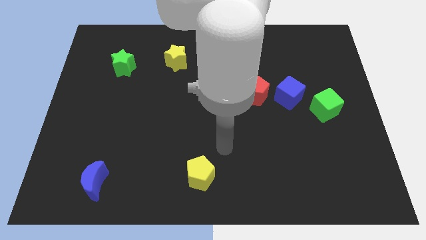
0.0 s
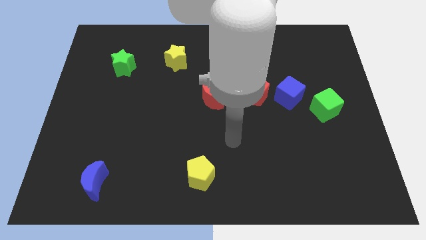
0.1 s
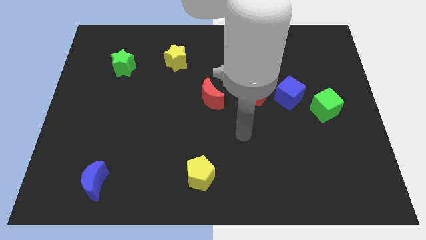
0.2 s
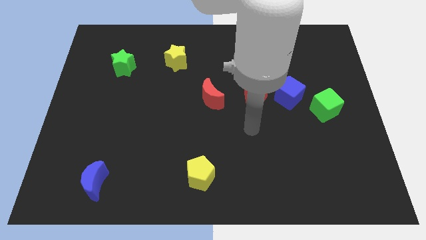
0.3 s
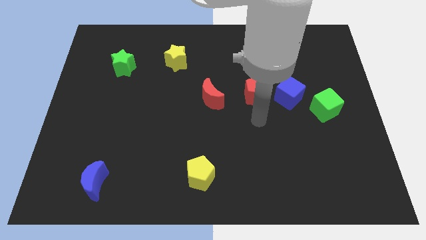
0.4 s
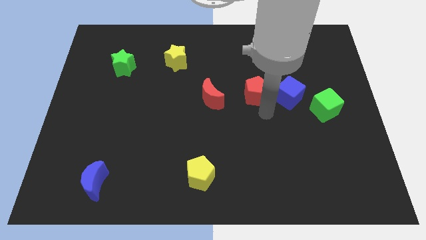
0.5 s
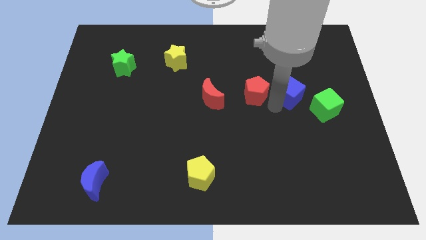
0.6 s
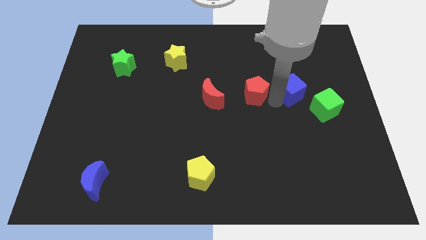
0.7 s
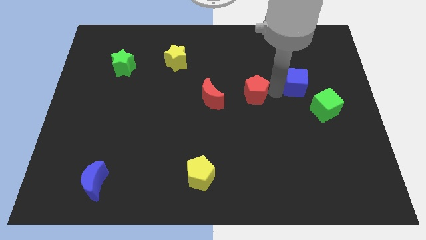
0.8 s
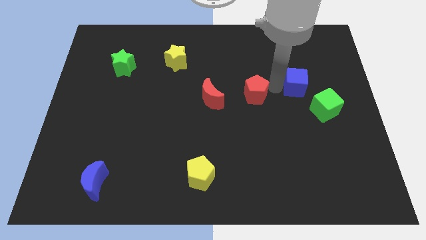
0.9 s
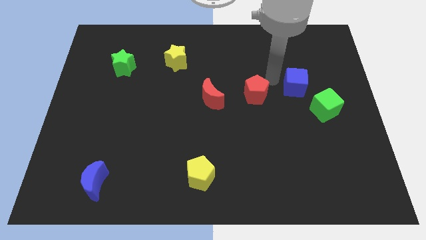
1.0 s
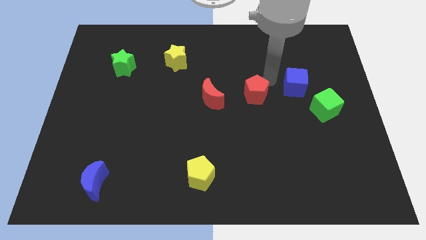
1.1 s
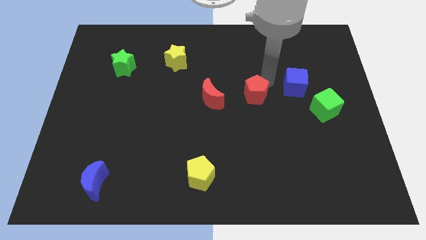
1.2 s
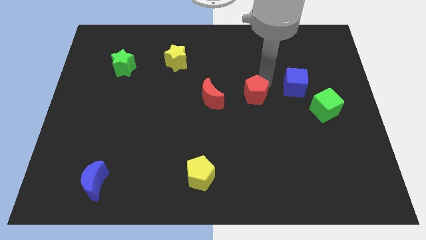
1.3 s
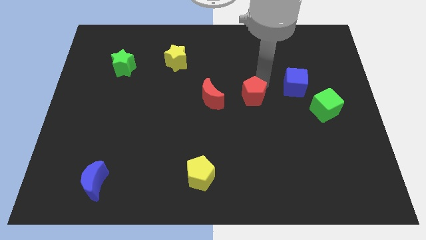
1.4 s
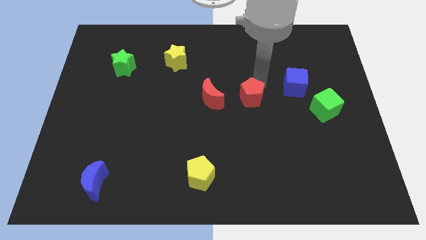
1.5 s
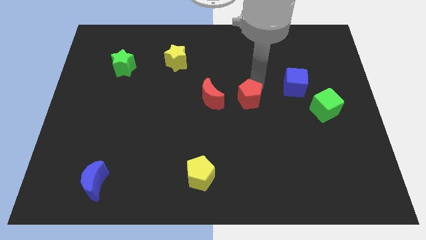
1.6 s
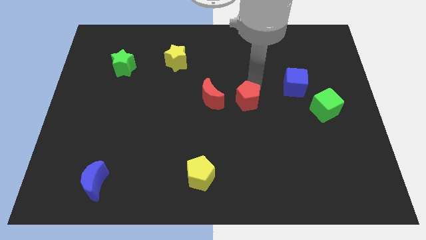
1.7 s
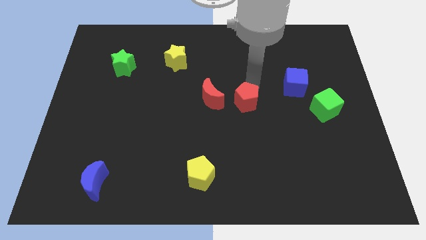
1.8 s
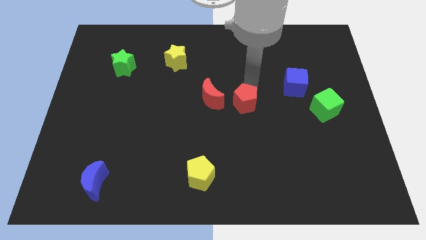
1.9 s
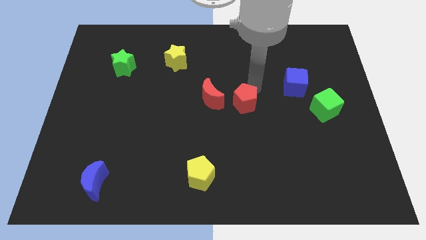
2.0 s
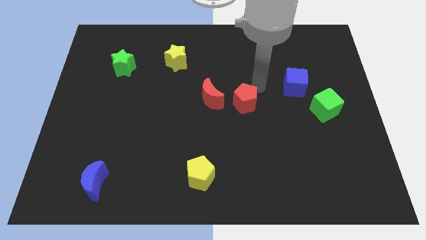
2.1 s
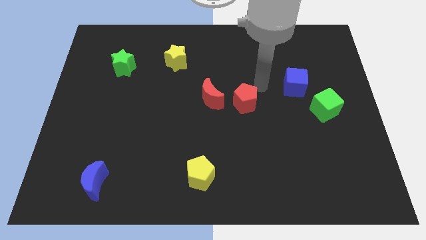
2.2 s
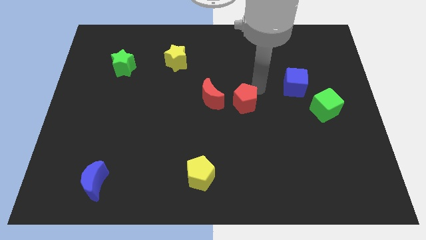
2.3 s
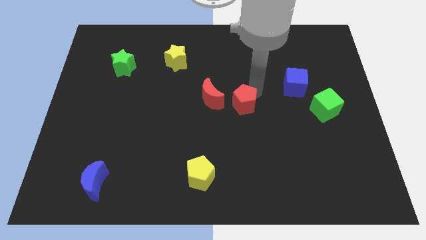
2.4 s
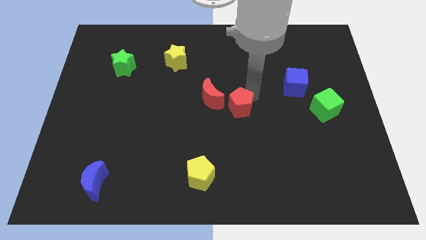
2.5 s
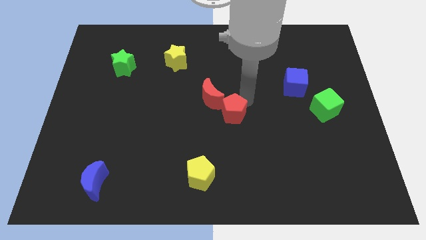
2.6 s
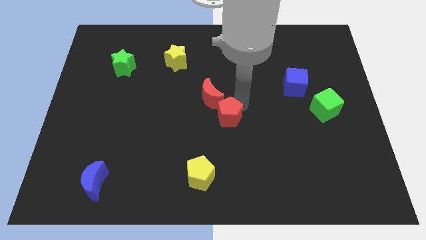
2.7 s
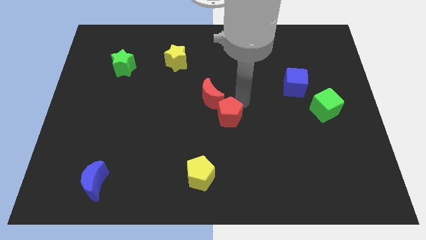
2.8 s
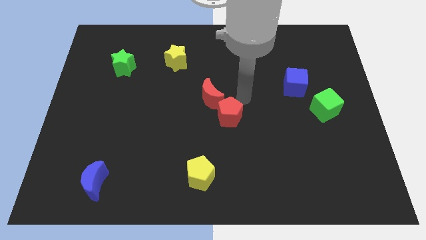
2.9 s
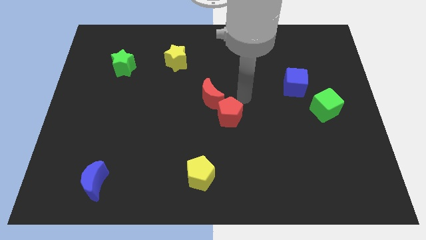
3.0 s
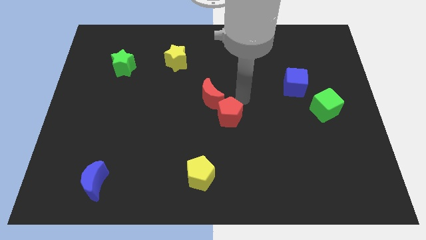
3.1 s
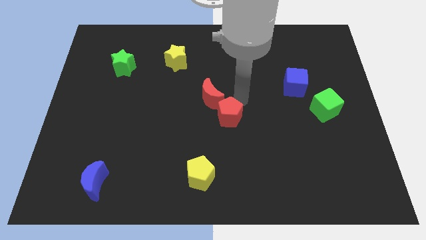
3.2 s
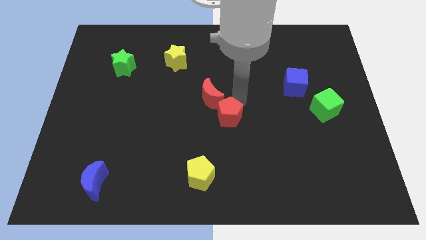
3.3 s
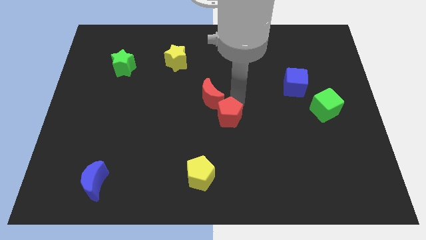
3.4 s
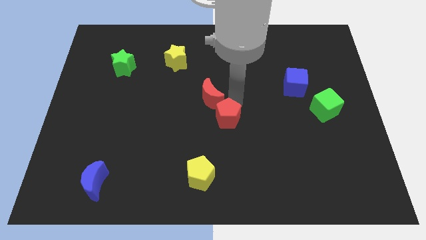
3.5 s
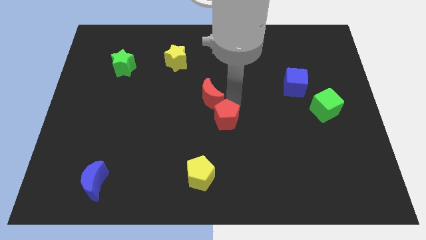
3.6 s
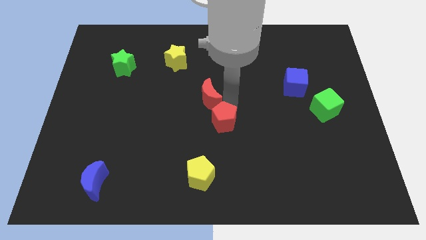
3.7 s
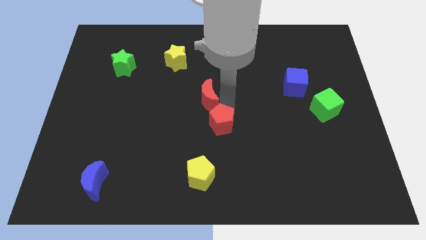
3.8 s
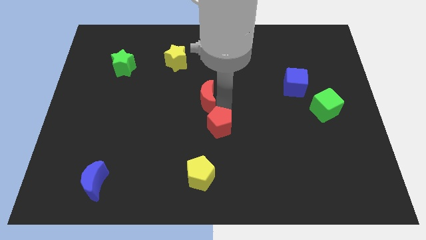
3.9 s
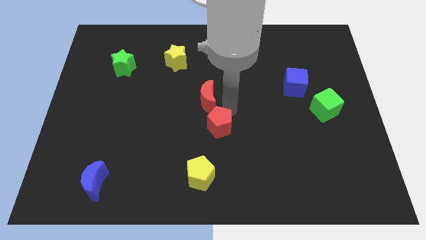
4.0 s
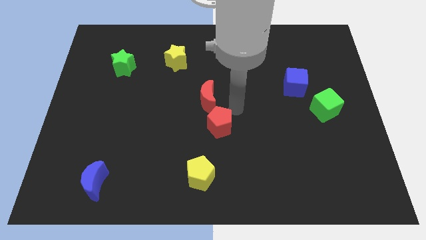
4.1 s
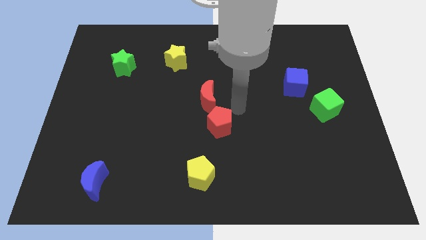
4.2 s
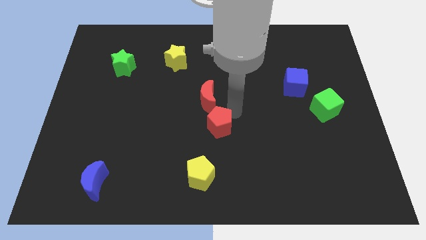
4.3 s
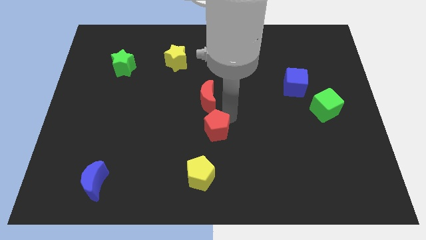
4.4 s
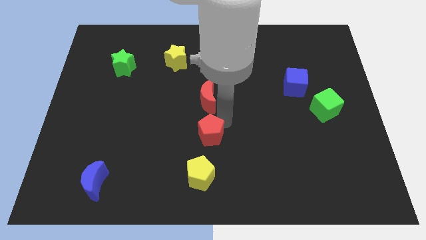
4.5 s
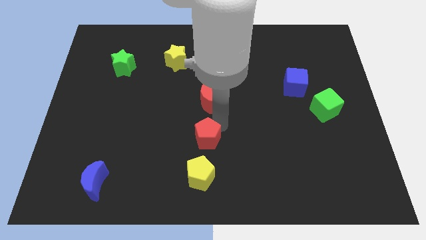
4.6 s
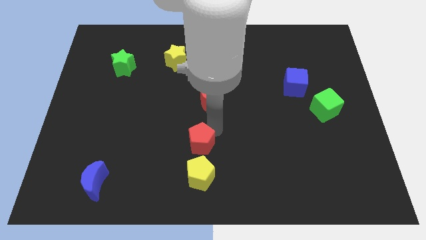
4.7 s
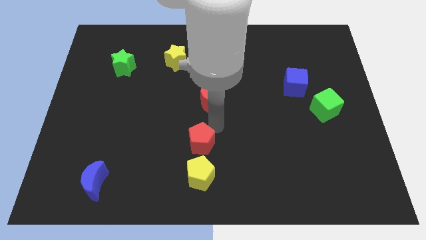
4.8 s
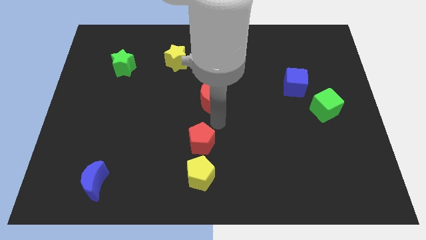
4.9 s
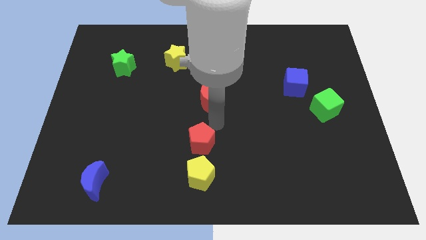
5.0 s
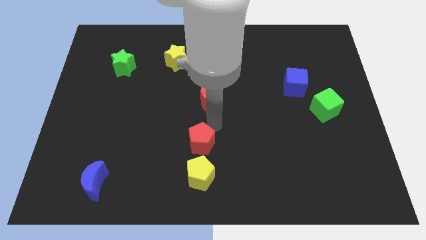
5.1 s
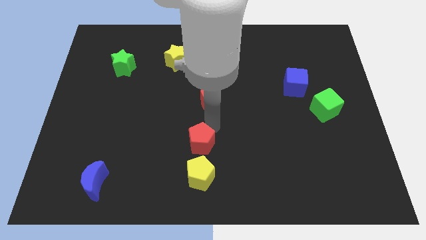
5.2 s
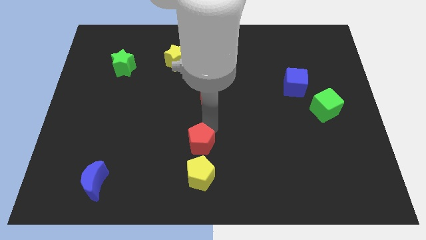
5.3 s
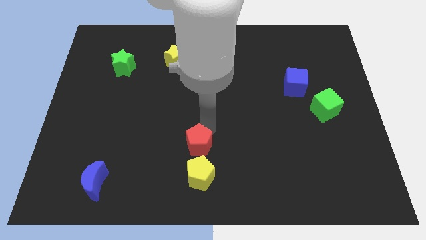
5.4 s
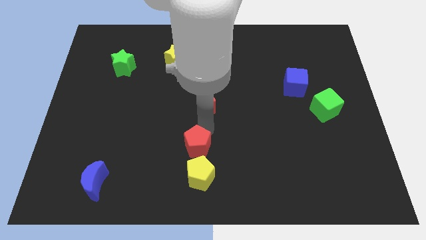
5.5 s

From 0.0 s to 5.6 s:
slide the red pentagon down and left diagonally

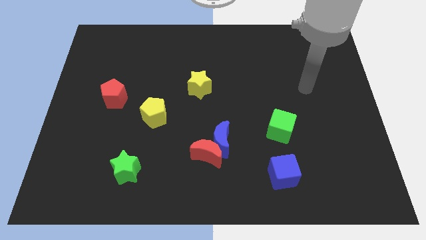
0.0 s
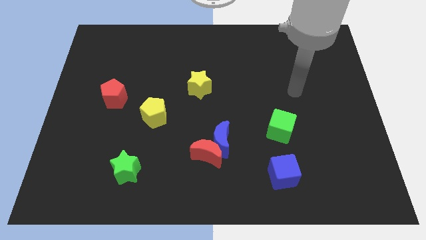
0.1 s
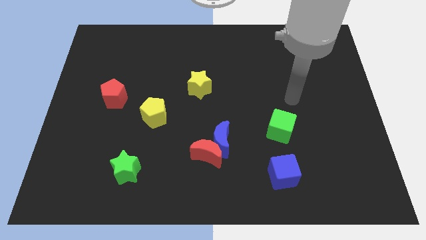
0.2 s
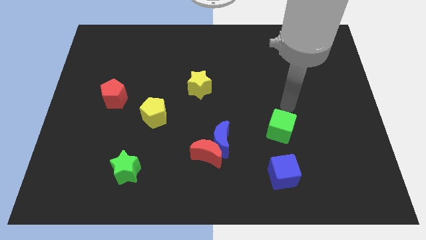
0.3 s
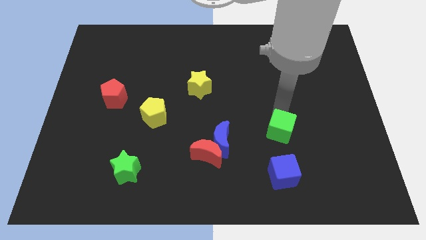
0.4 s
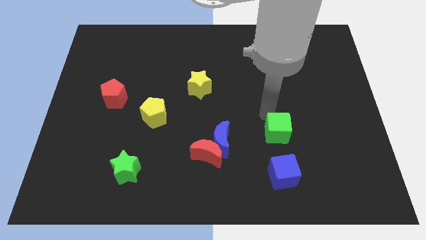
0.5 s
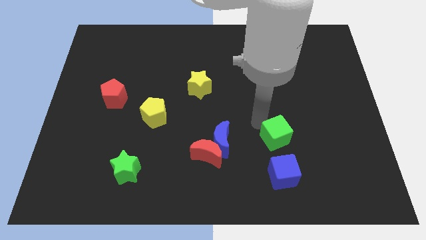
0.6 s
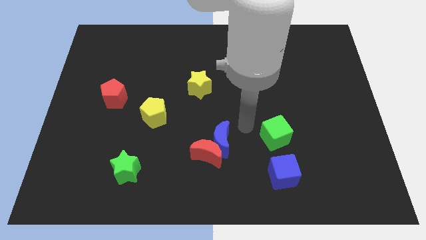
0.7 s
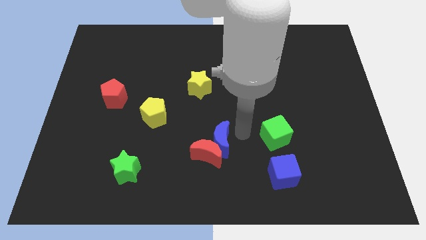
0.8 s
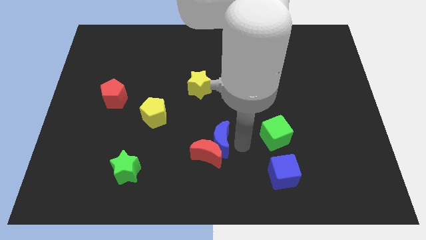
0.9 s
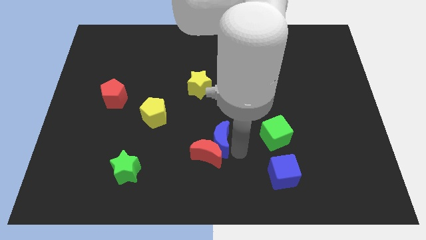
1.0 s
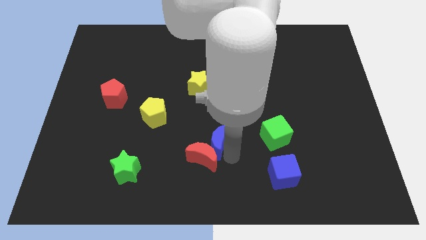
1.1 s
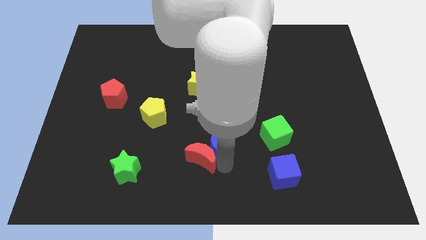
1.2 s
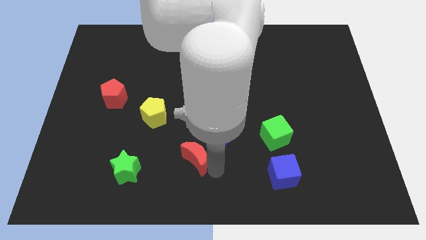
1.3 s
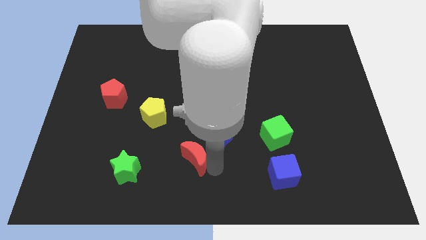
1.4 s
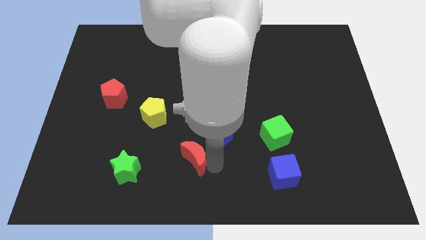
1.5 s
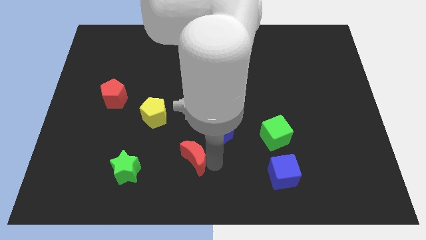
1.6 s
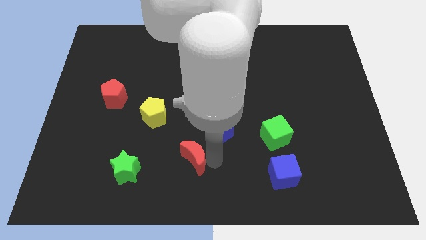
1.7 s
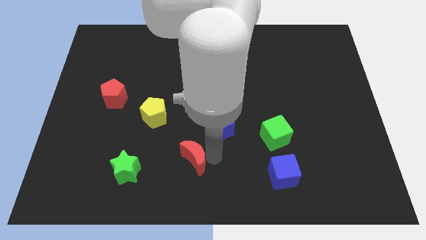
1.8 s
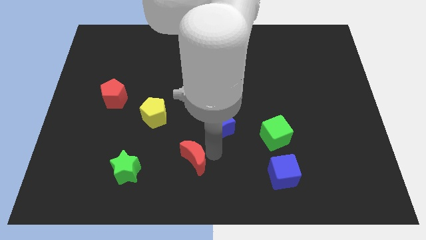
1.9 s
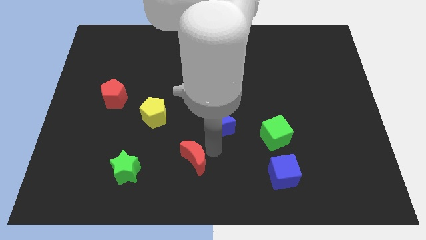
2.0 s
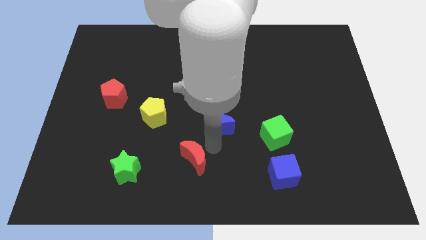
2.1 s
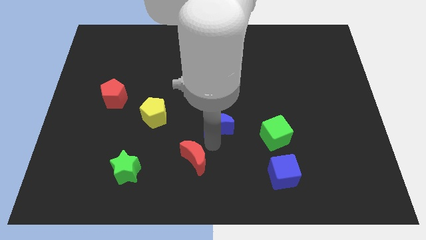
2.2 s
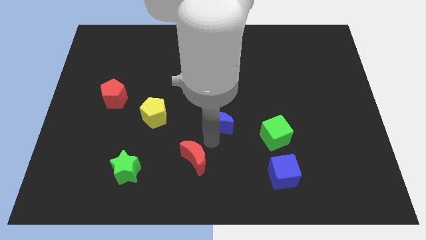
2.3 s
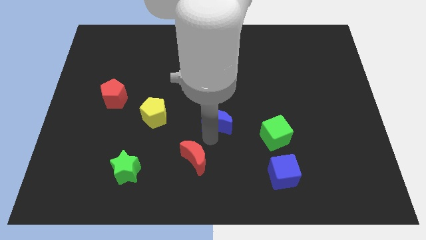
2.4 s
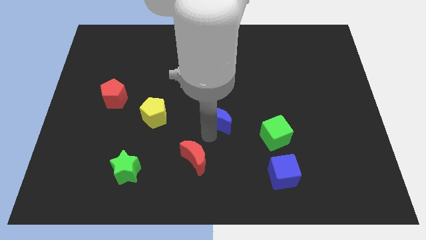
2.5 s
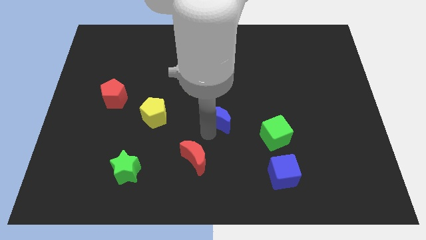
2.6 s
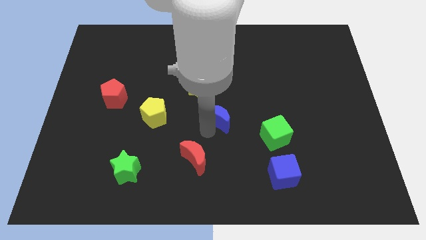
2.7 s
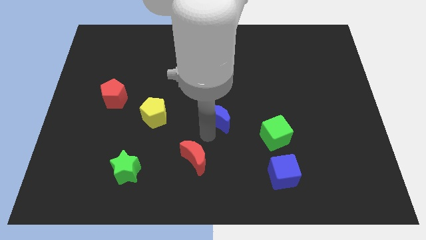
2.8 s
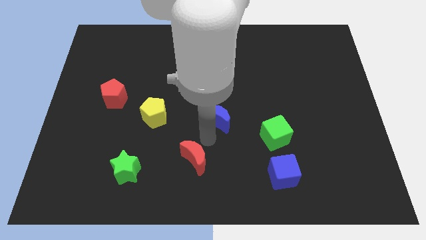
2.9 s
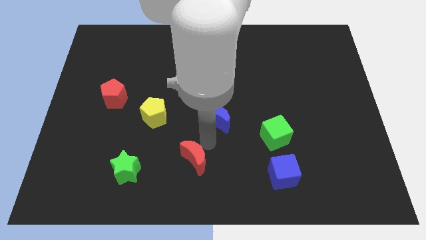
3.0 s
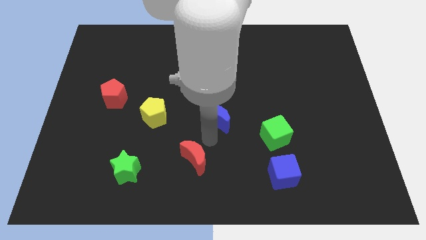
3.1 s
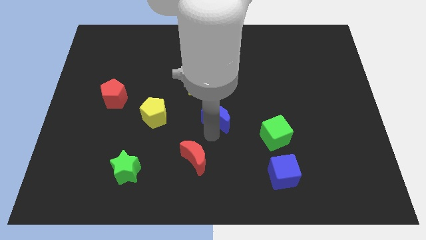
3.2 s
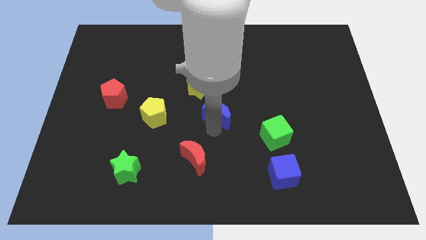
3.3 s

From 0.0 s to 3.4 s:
slide the blue moon up somewhat
